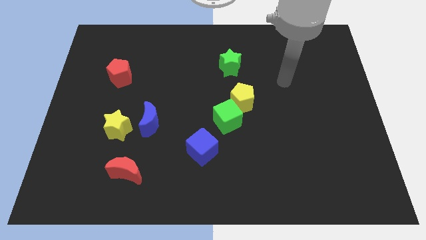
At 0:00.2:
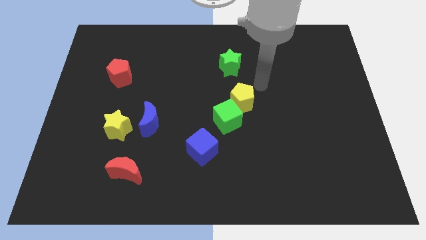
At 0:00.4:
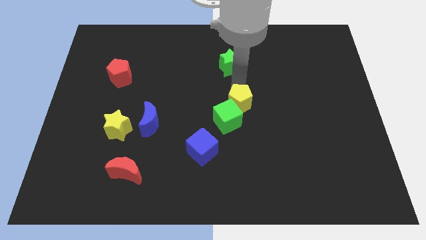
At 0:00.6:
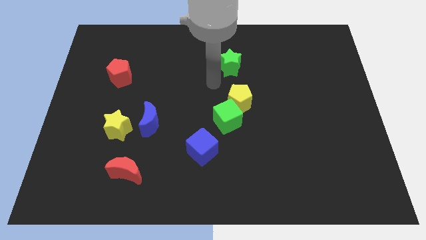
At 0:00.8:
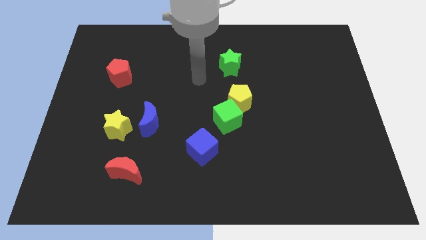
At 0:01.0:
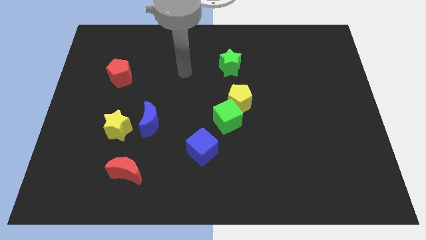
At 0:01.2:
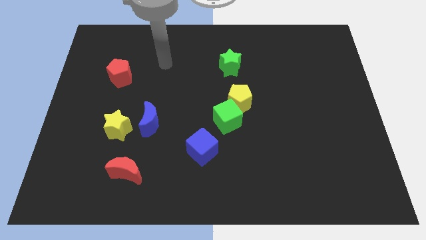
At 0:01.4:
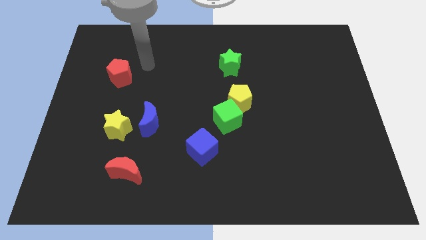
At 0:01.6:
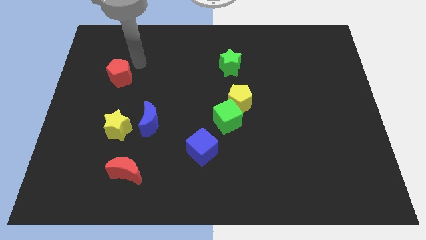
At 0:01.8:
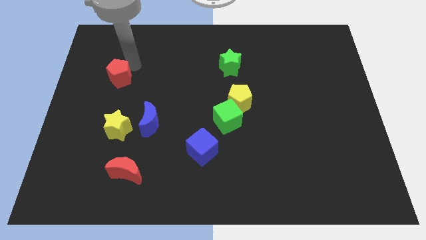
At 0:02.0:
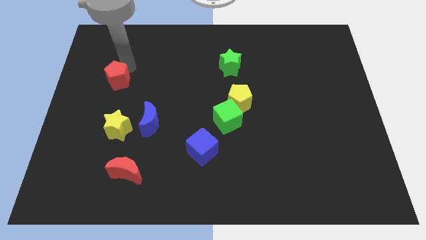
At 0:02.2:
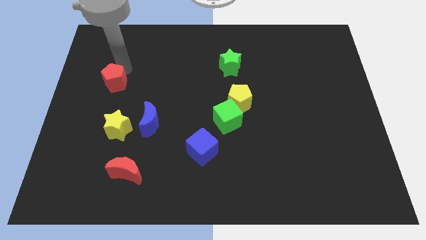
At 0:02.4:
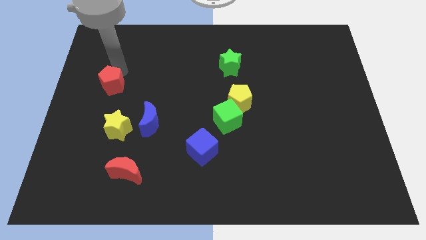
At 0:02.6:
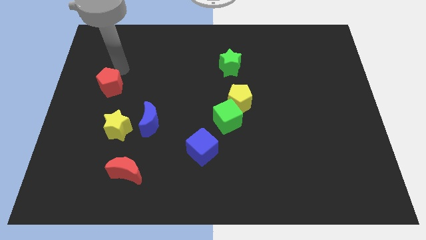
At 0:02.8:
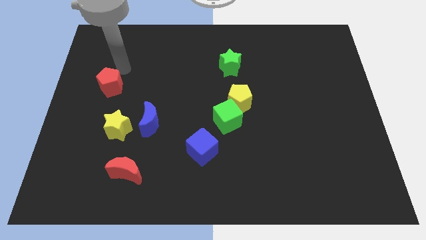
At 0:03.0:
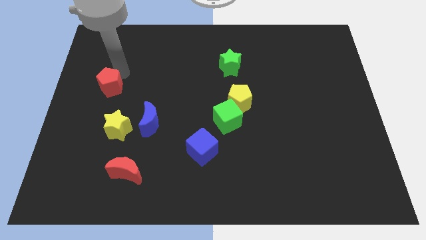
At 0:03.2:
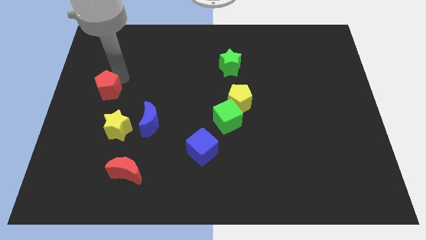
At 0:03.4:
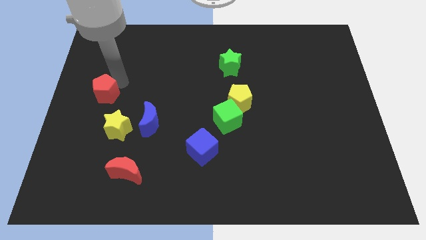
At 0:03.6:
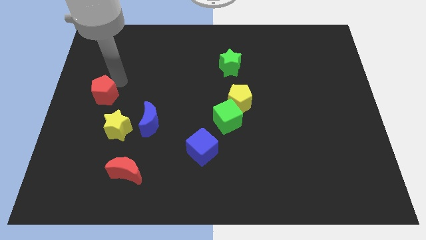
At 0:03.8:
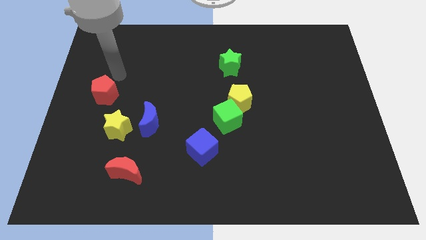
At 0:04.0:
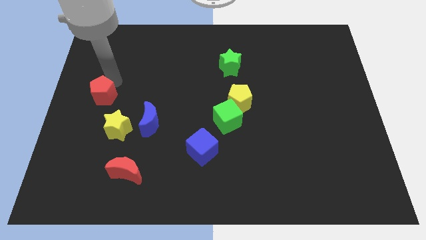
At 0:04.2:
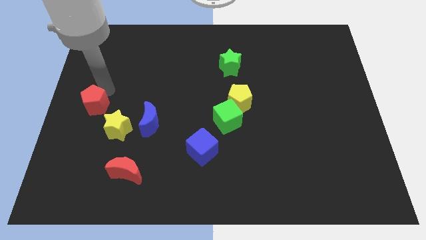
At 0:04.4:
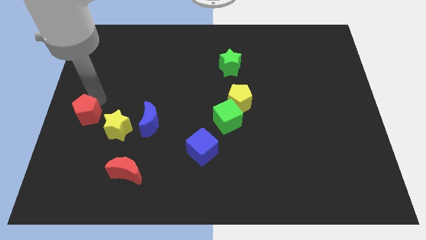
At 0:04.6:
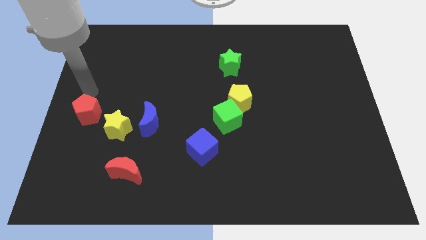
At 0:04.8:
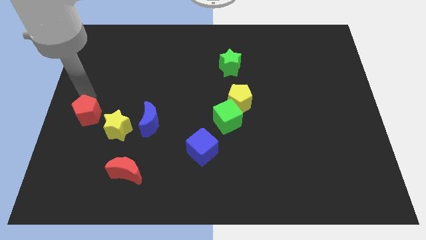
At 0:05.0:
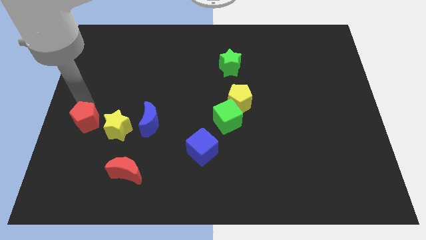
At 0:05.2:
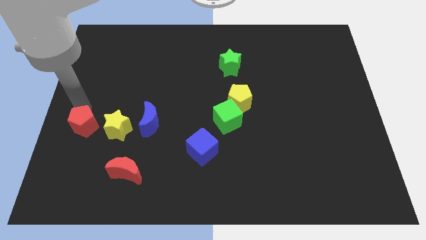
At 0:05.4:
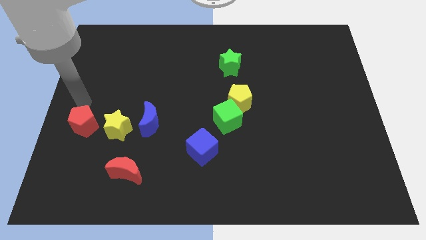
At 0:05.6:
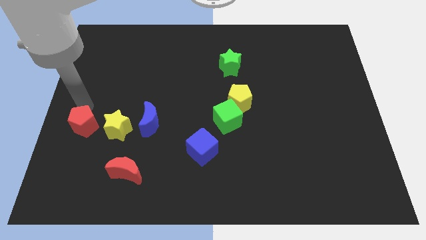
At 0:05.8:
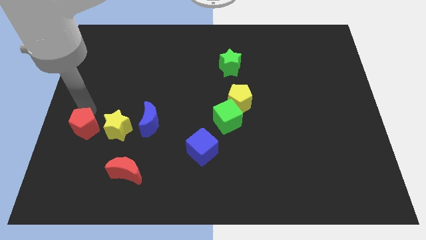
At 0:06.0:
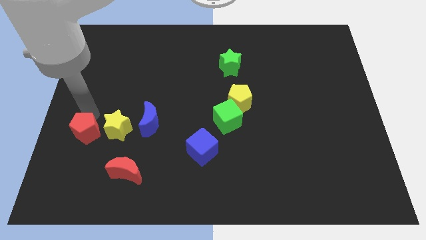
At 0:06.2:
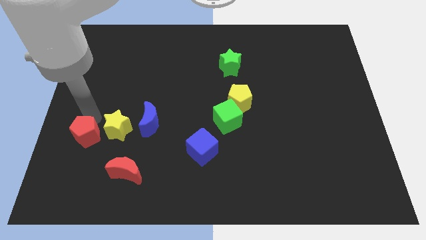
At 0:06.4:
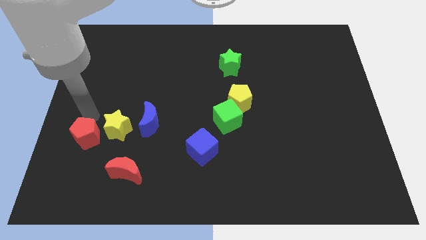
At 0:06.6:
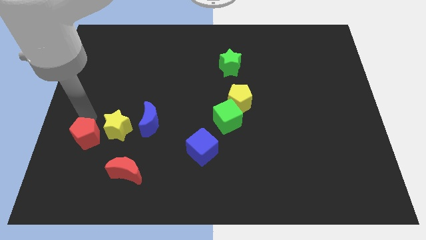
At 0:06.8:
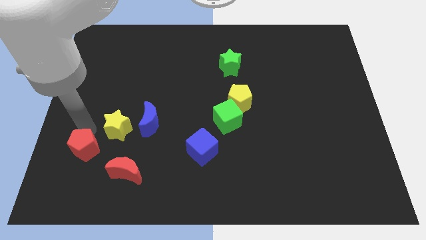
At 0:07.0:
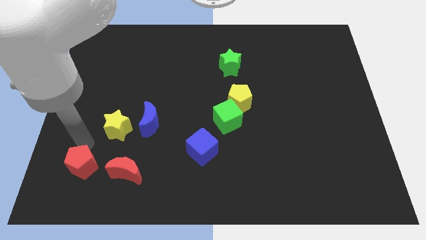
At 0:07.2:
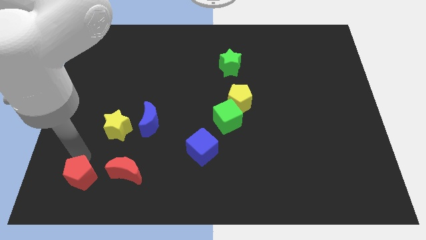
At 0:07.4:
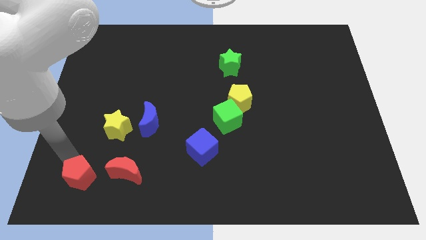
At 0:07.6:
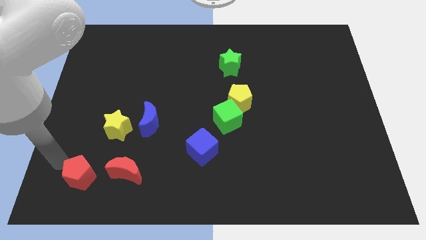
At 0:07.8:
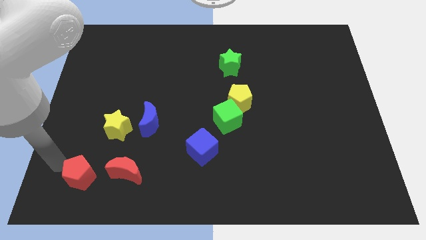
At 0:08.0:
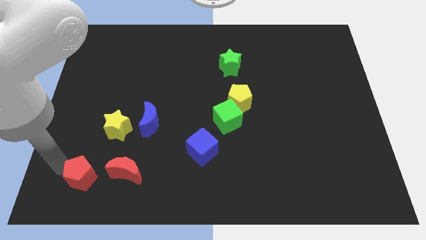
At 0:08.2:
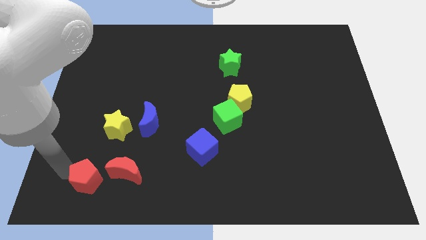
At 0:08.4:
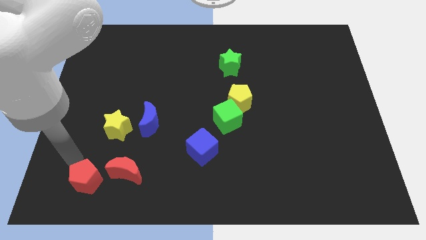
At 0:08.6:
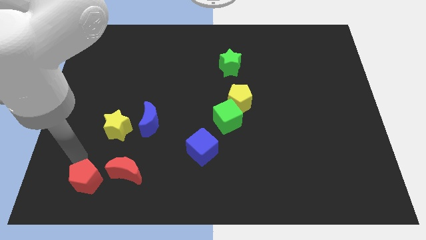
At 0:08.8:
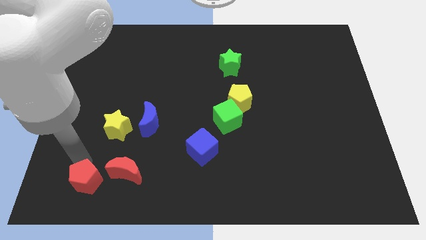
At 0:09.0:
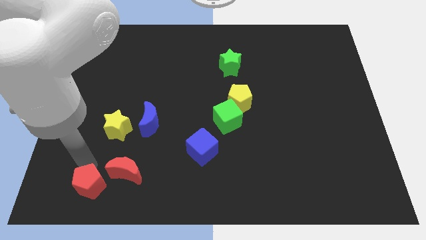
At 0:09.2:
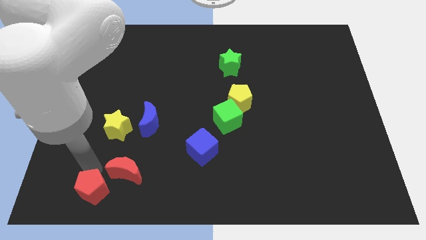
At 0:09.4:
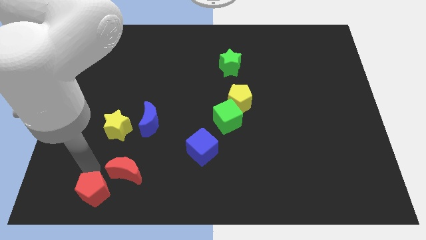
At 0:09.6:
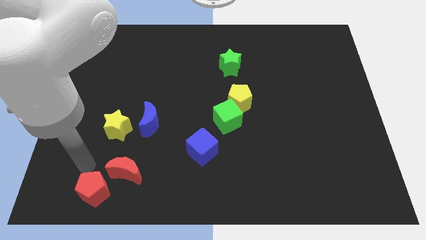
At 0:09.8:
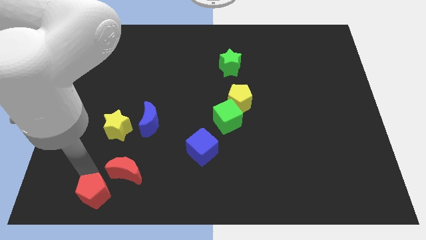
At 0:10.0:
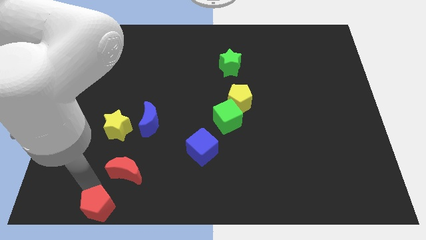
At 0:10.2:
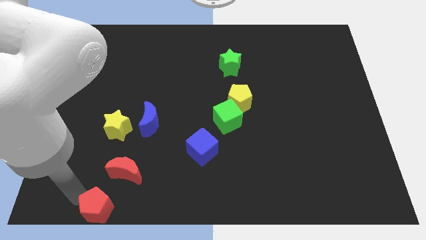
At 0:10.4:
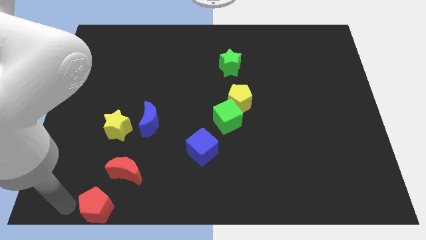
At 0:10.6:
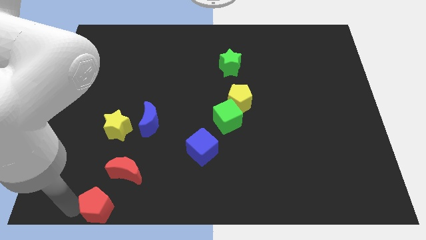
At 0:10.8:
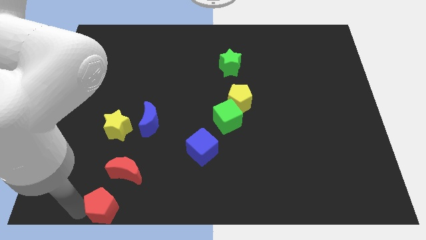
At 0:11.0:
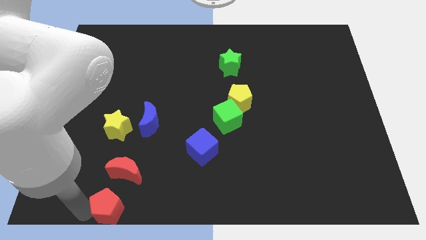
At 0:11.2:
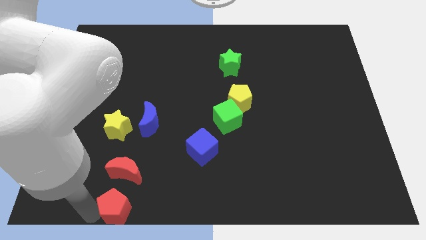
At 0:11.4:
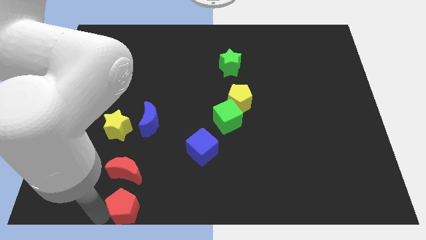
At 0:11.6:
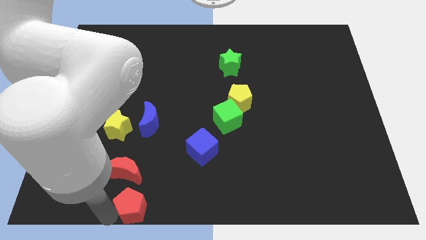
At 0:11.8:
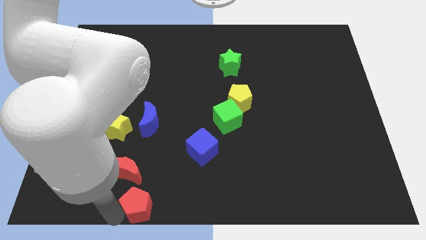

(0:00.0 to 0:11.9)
push the red pentagon to the bottom side

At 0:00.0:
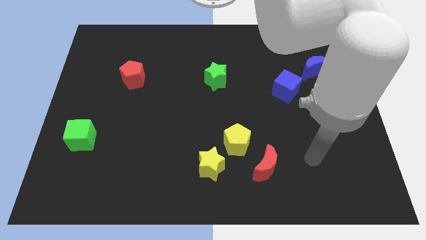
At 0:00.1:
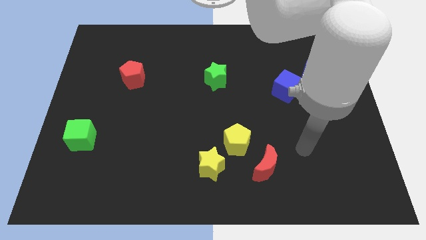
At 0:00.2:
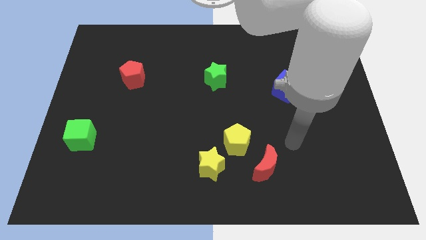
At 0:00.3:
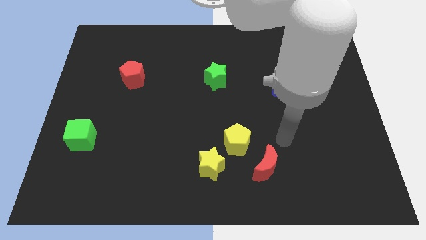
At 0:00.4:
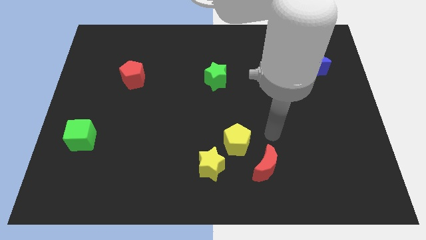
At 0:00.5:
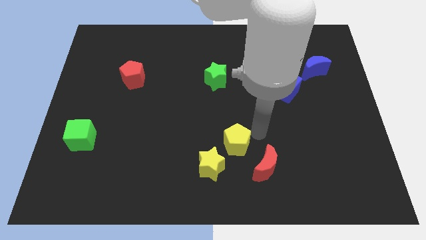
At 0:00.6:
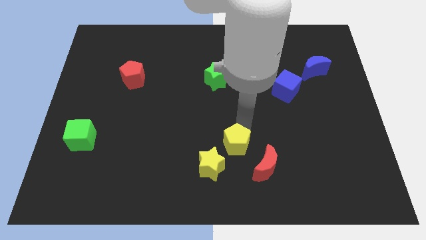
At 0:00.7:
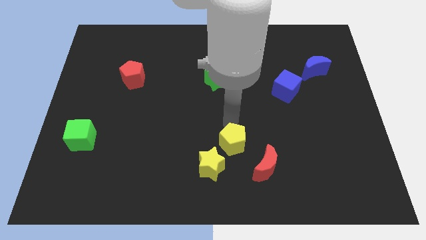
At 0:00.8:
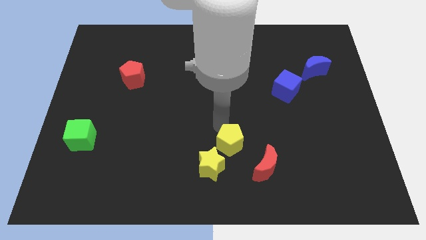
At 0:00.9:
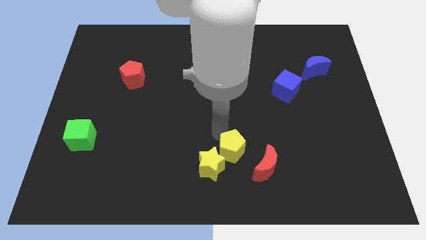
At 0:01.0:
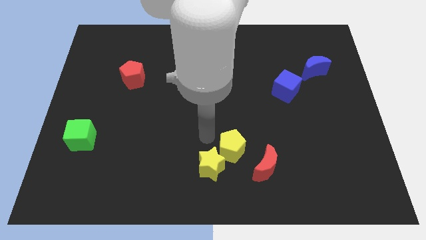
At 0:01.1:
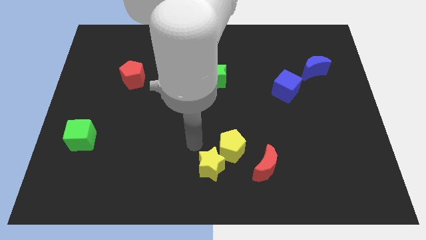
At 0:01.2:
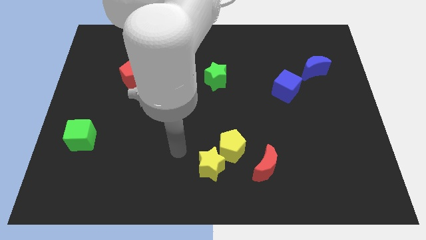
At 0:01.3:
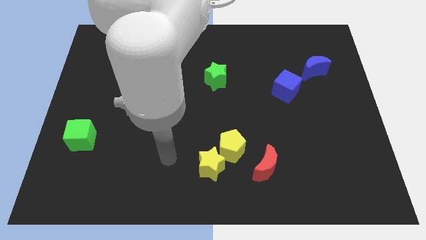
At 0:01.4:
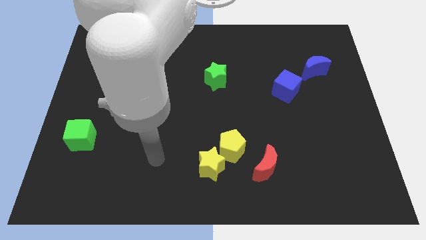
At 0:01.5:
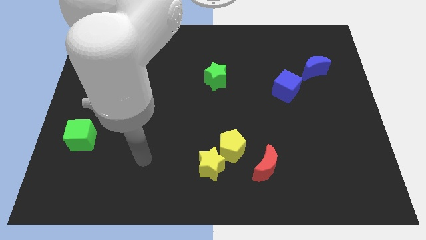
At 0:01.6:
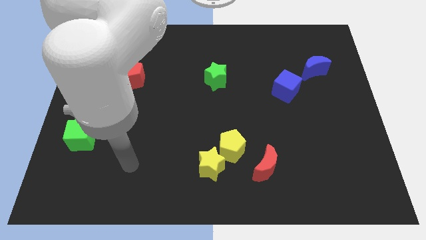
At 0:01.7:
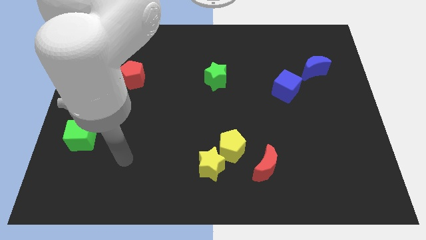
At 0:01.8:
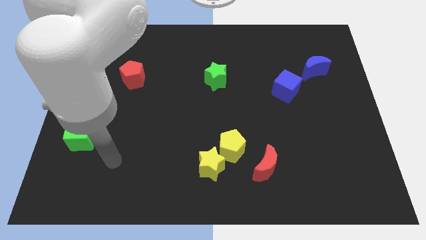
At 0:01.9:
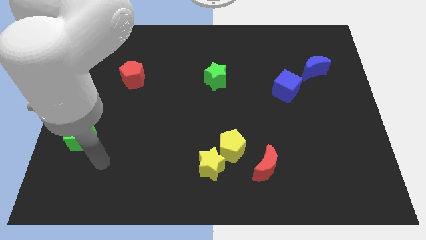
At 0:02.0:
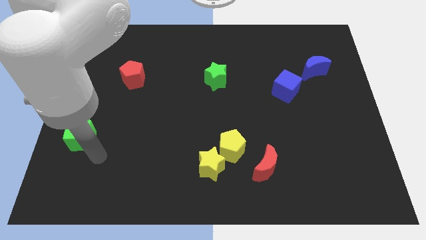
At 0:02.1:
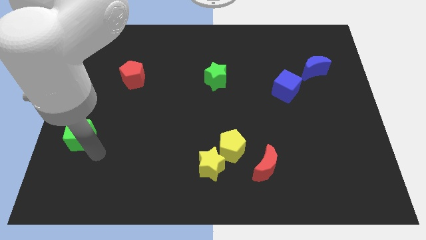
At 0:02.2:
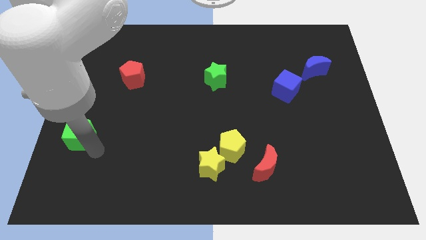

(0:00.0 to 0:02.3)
push the green cube to the left side of the board
